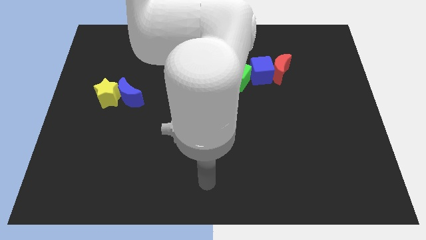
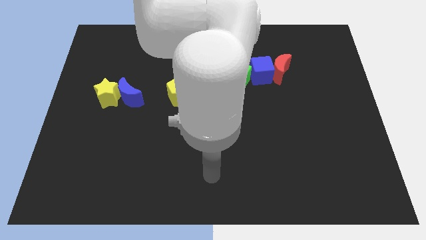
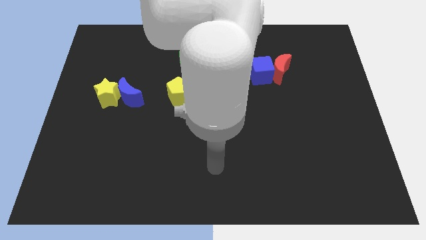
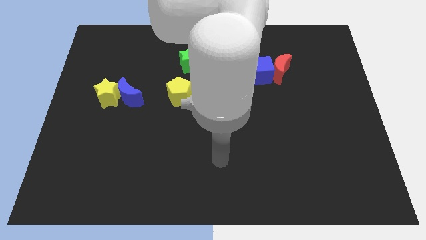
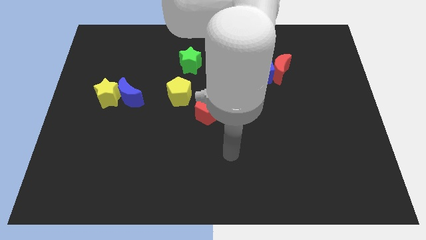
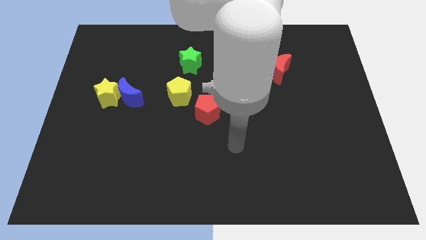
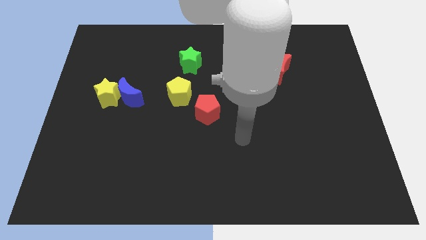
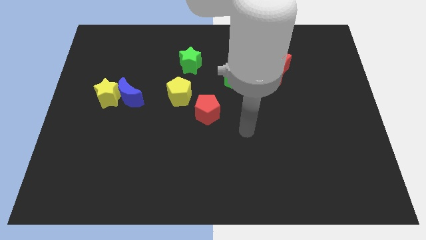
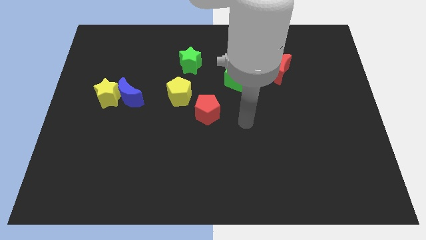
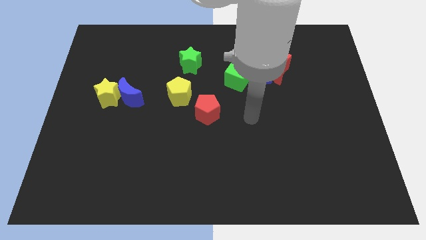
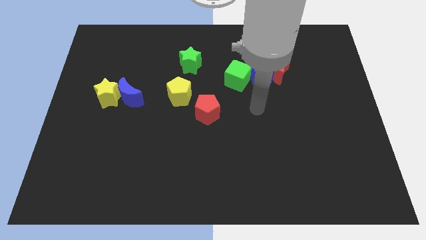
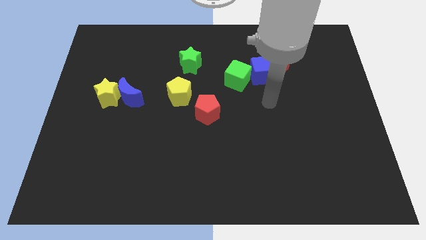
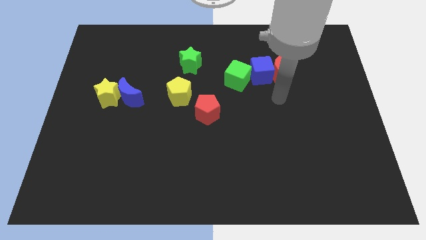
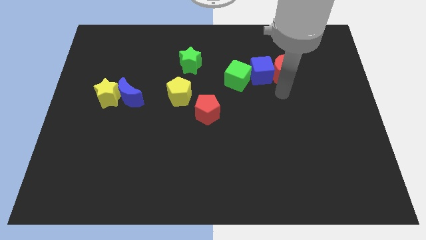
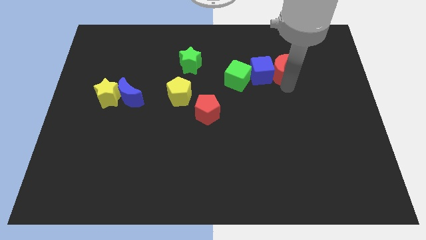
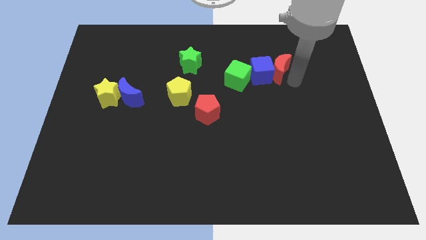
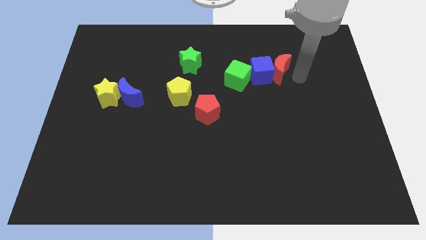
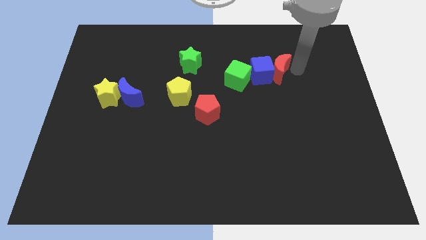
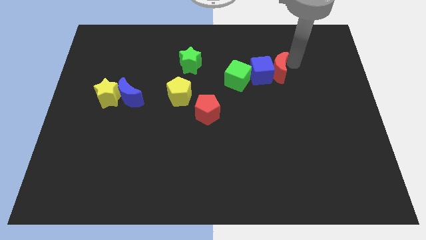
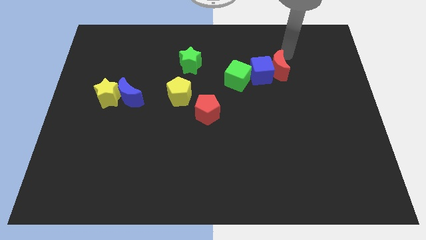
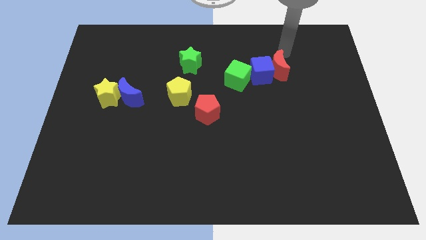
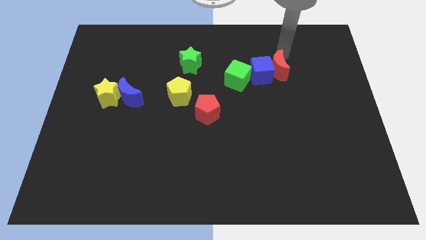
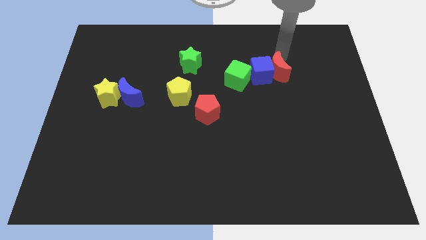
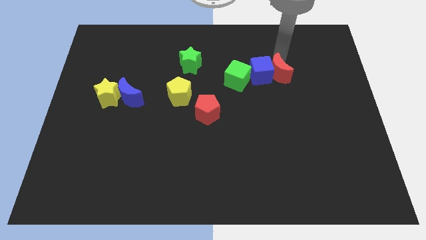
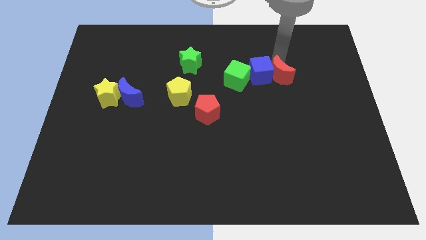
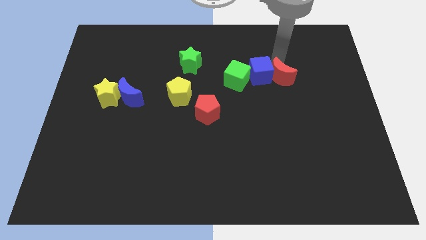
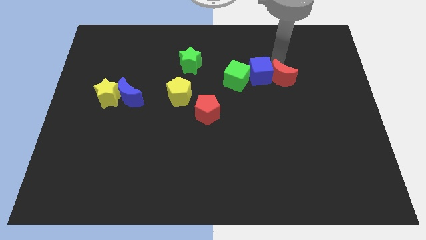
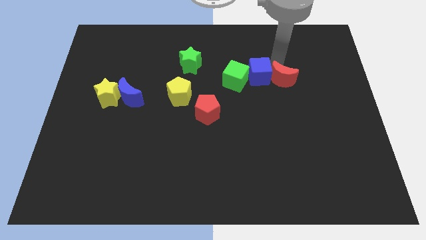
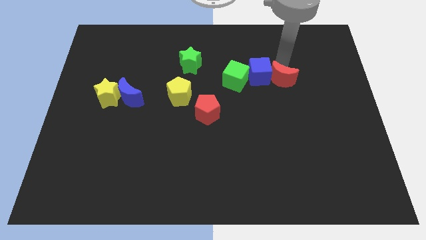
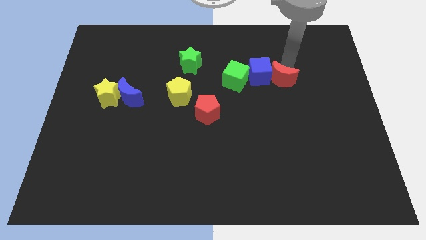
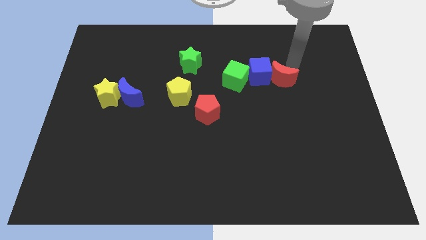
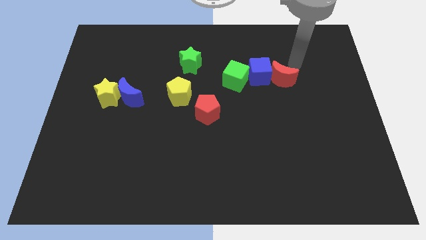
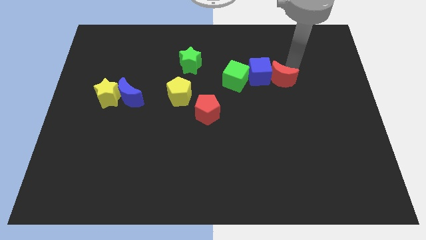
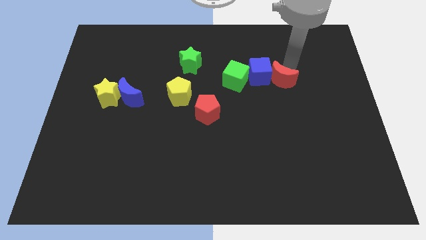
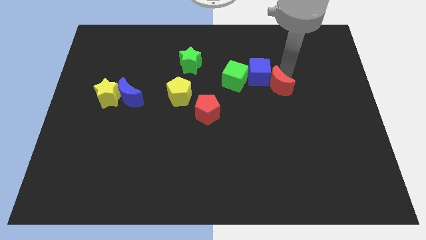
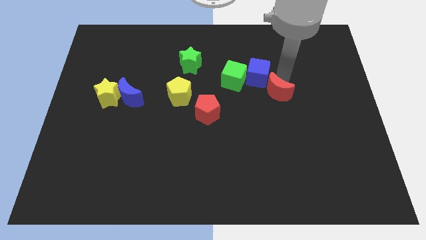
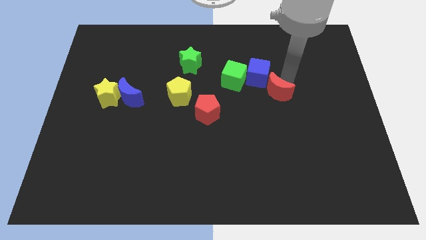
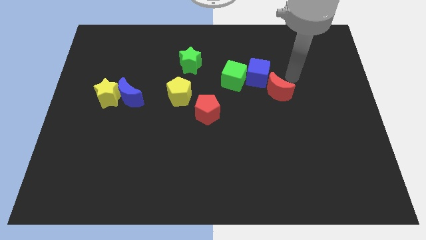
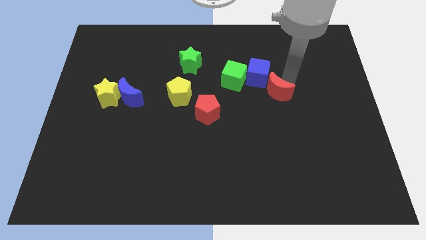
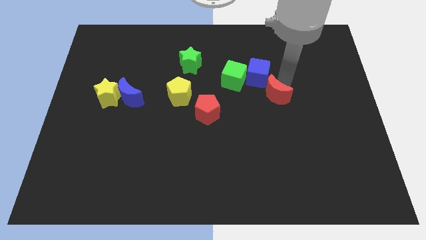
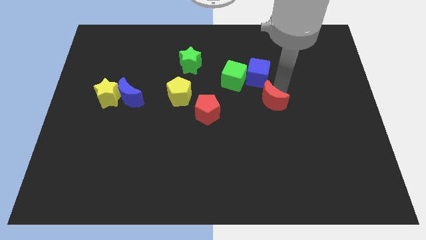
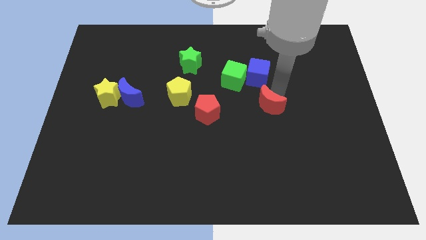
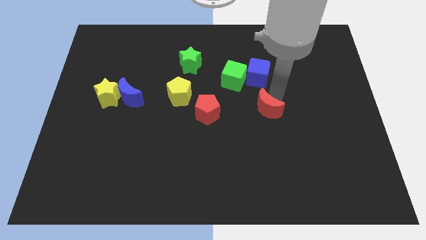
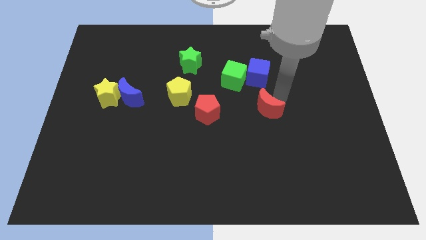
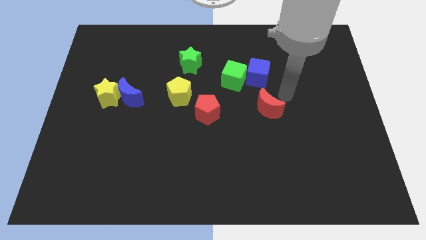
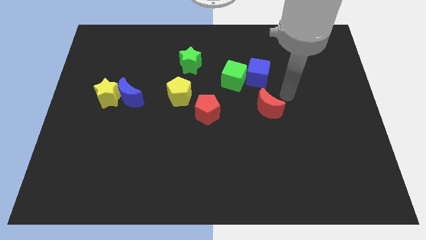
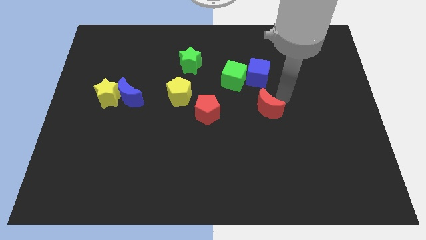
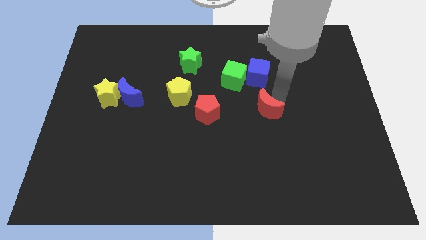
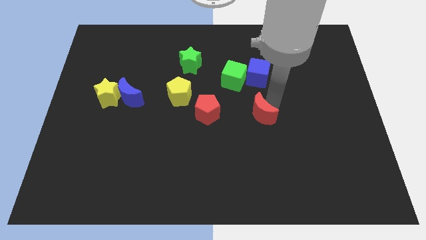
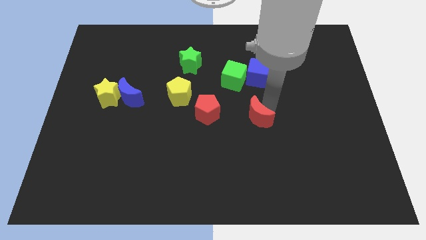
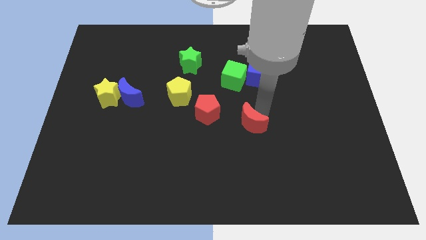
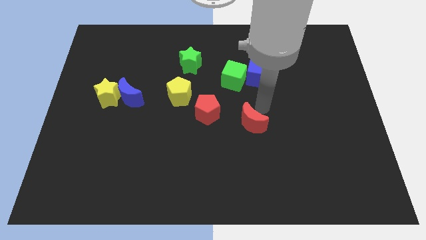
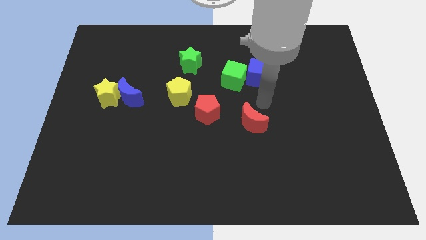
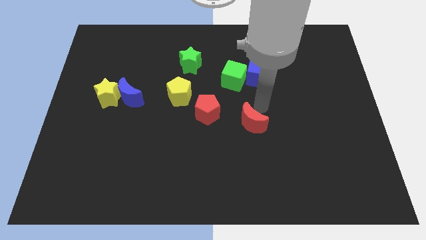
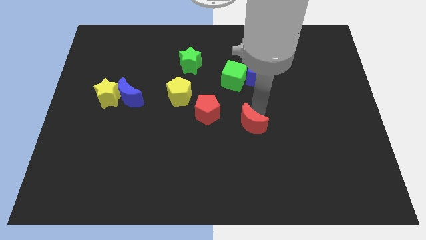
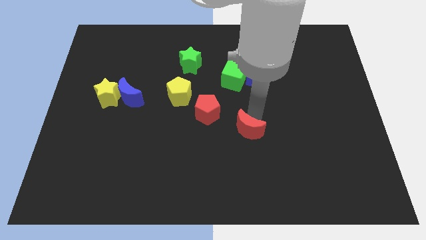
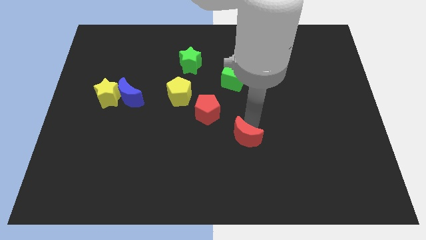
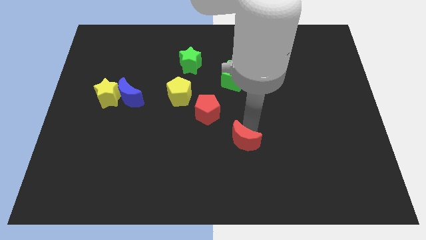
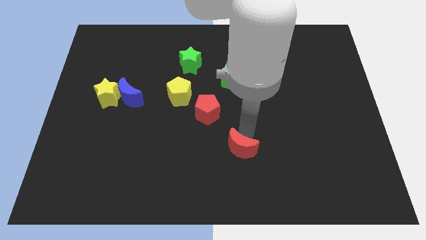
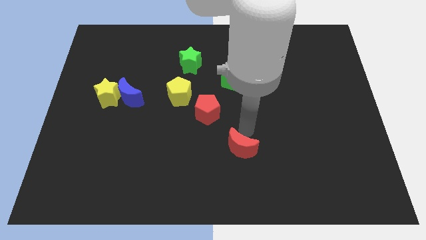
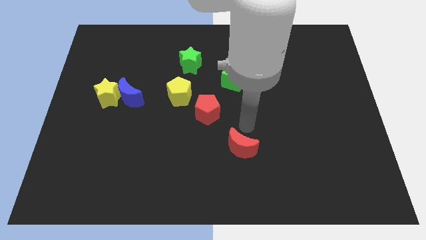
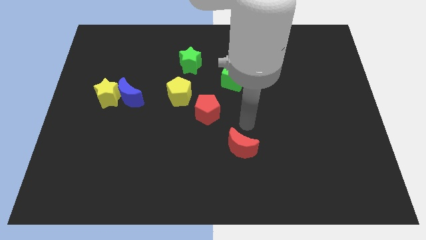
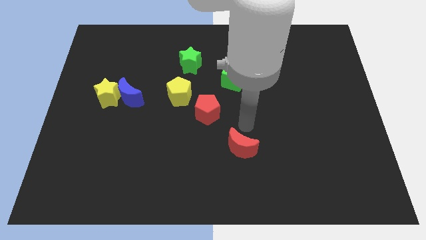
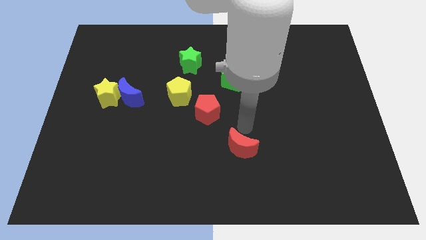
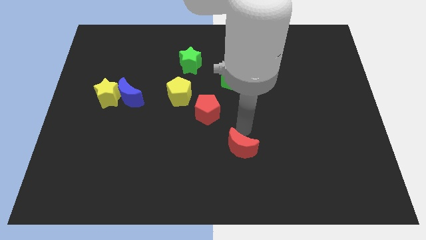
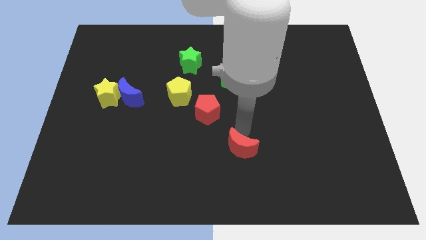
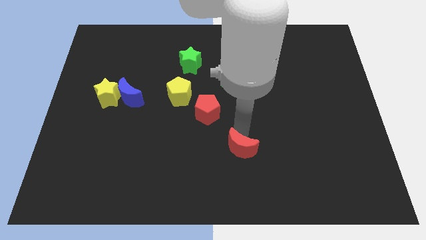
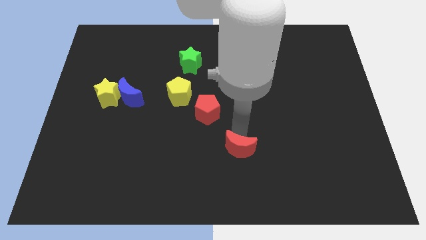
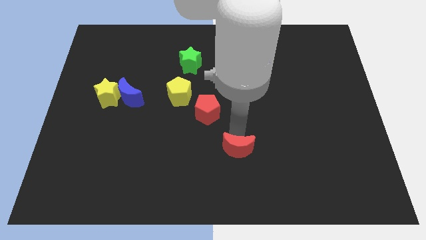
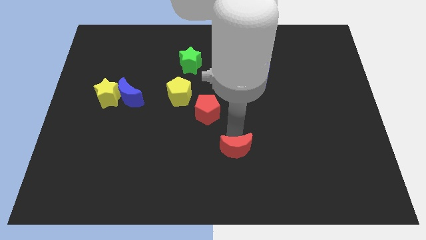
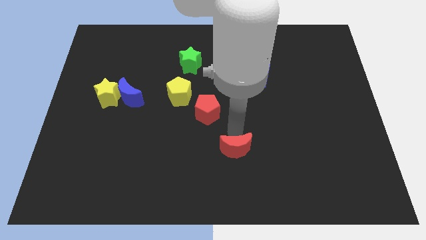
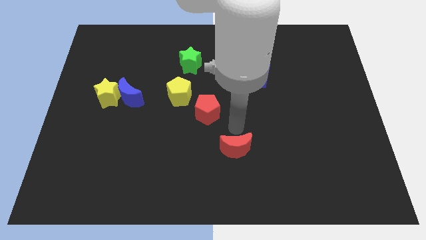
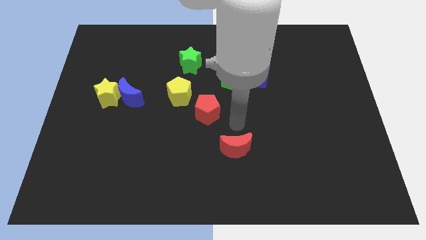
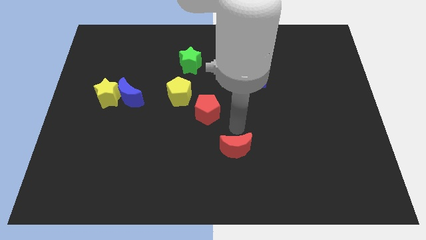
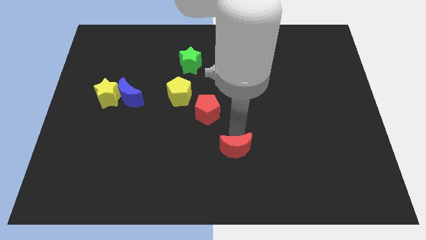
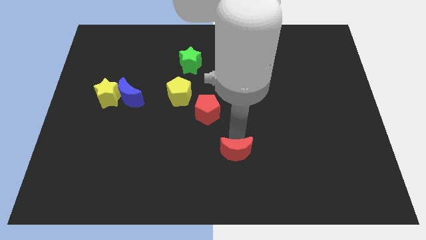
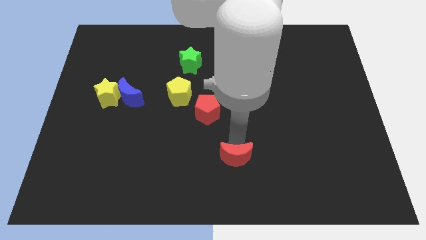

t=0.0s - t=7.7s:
slide the red moon to the bottom side

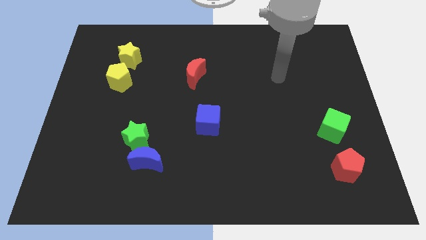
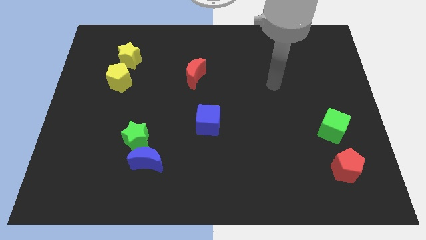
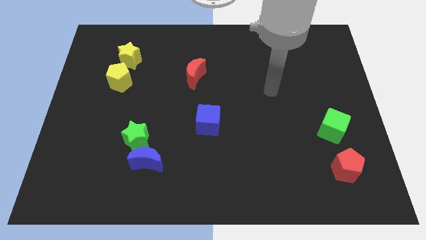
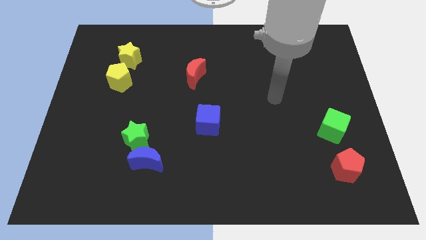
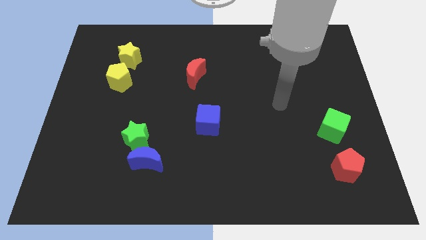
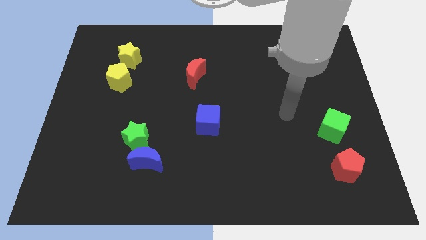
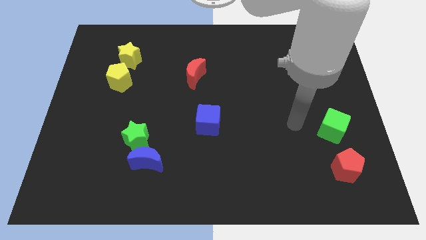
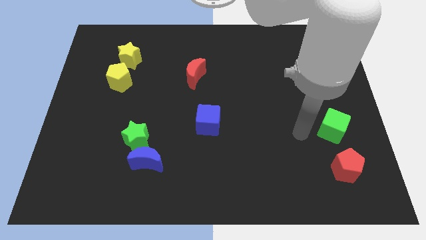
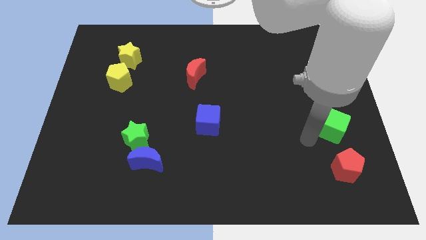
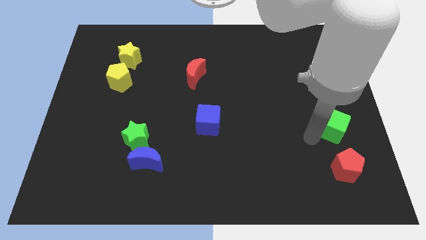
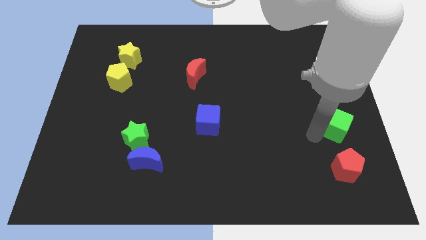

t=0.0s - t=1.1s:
push the green cube to the right side
